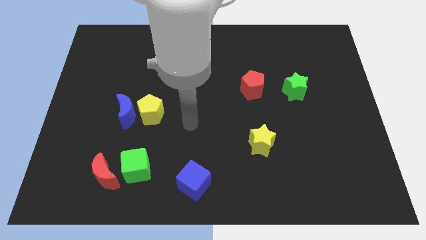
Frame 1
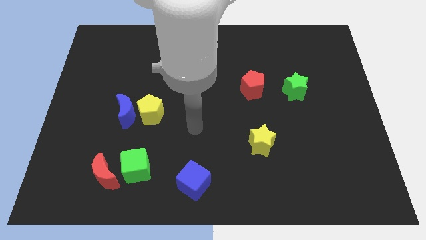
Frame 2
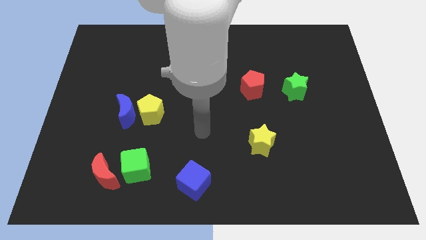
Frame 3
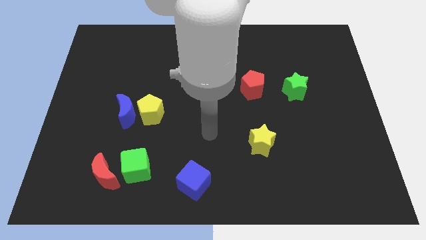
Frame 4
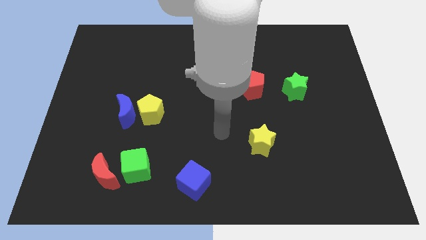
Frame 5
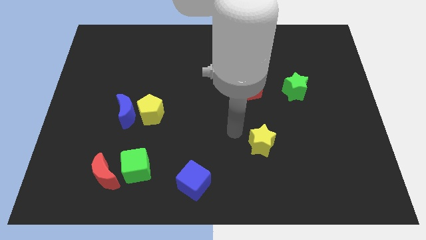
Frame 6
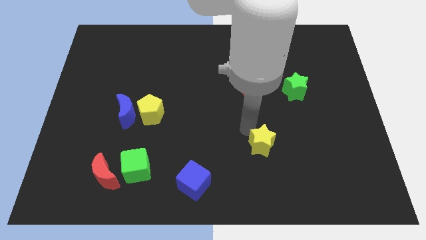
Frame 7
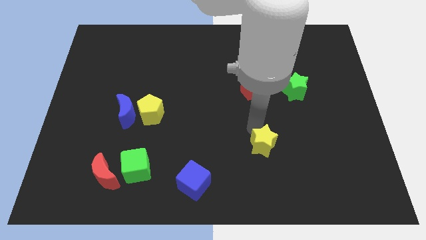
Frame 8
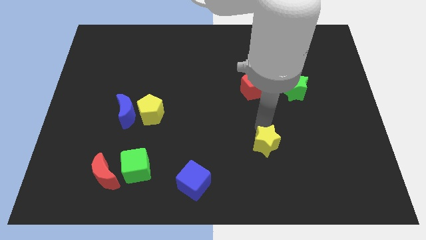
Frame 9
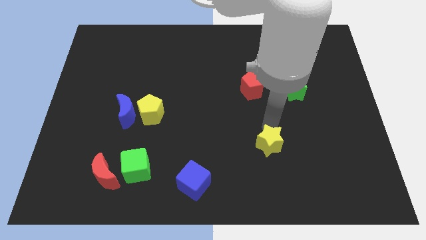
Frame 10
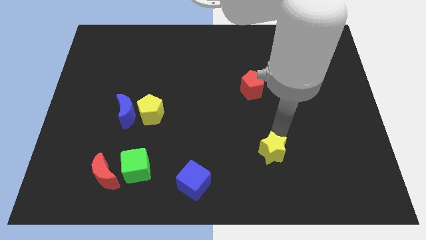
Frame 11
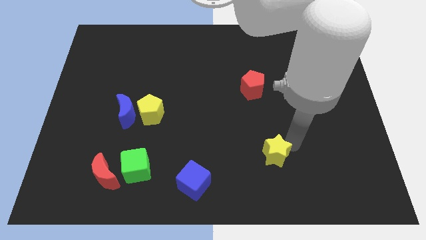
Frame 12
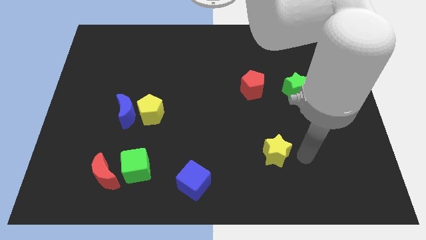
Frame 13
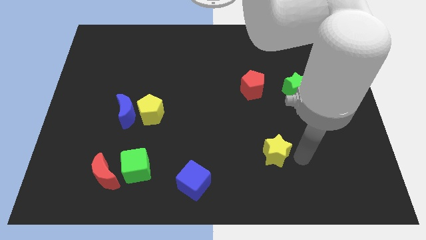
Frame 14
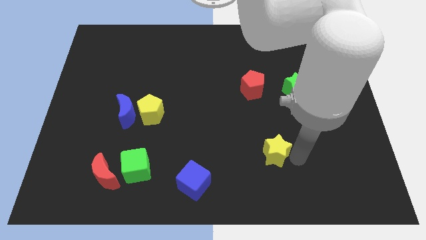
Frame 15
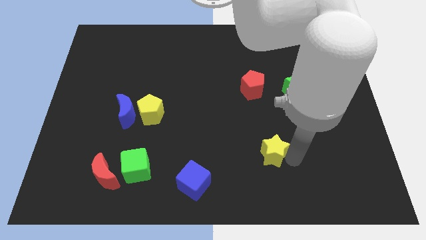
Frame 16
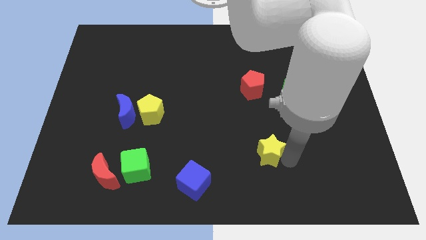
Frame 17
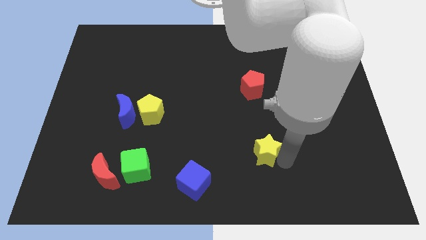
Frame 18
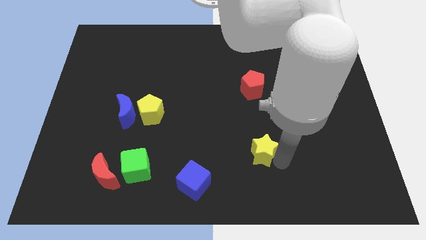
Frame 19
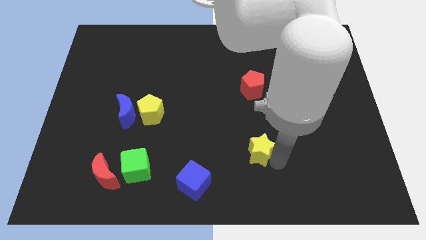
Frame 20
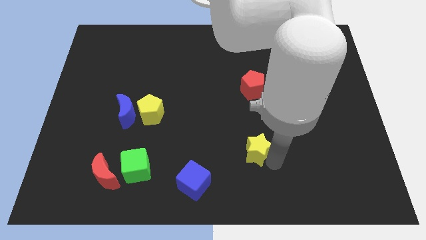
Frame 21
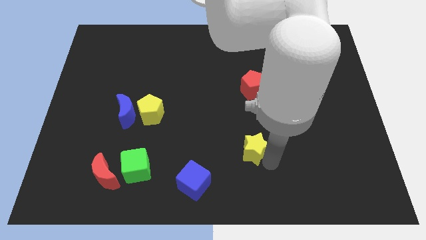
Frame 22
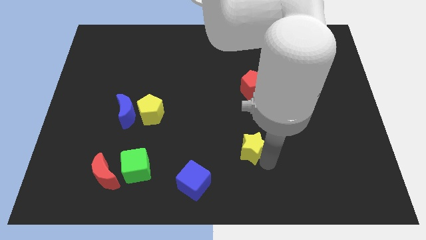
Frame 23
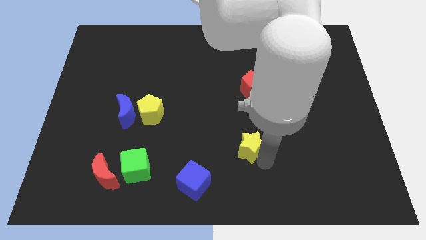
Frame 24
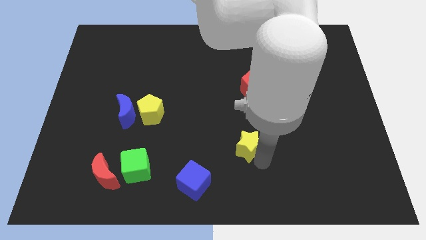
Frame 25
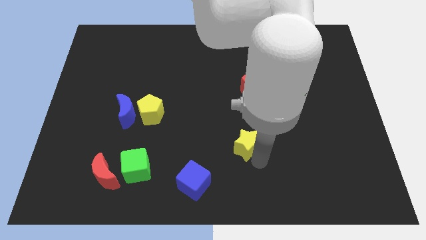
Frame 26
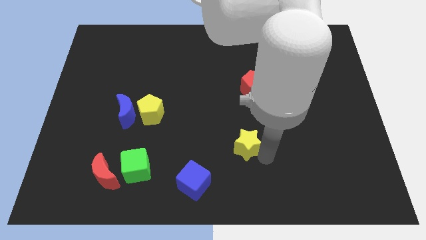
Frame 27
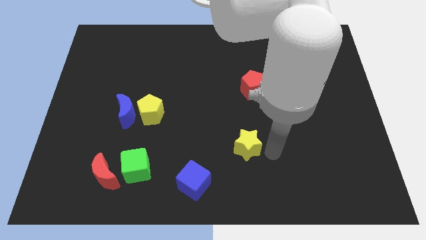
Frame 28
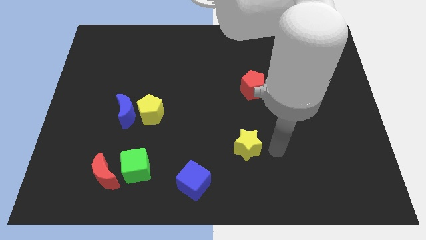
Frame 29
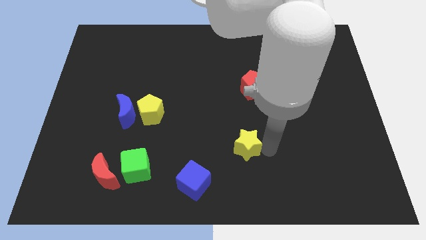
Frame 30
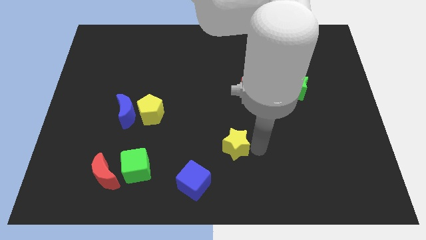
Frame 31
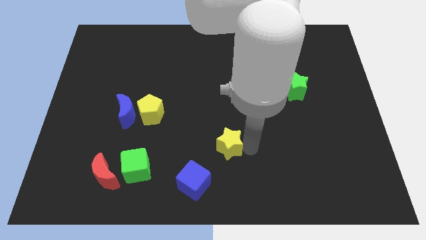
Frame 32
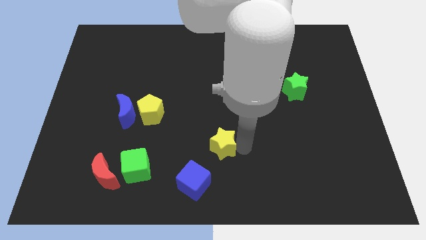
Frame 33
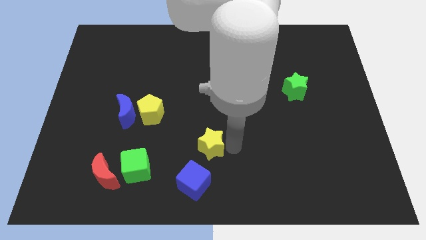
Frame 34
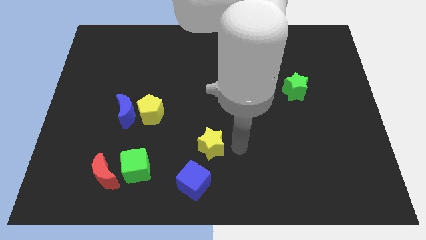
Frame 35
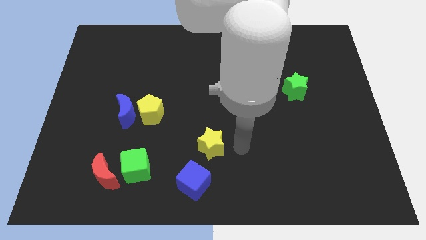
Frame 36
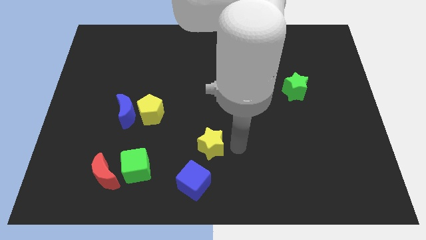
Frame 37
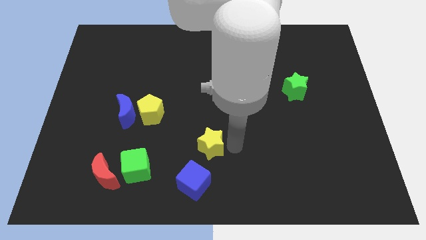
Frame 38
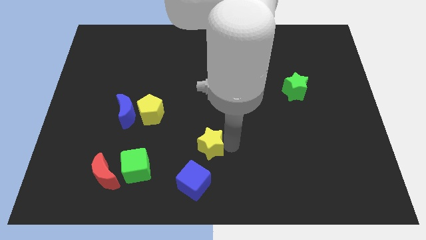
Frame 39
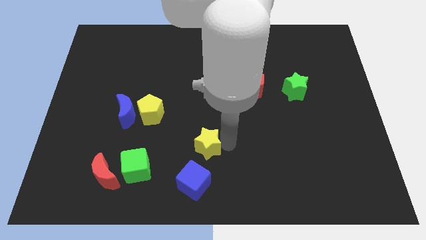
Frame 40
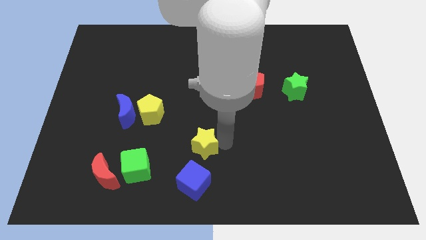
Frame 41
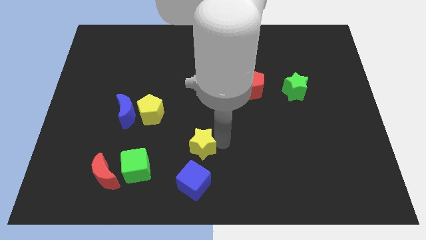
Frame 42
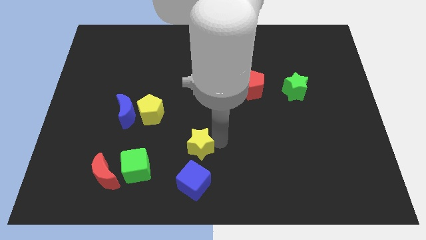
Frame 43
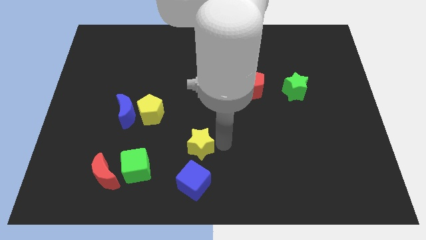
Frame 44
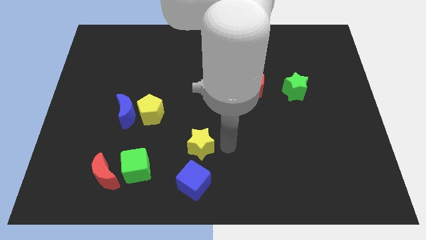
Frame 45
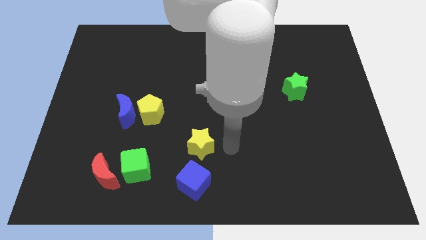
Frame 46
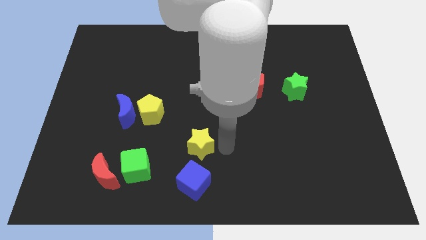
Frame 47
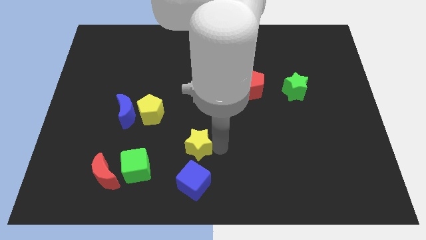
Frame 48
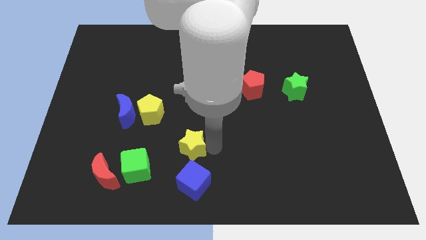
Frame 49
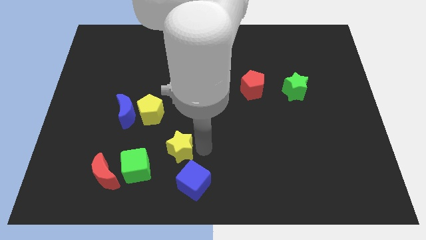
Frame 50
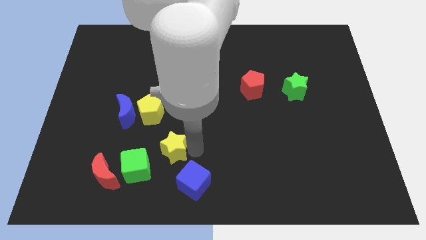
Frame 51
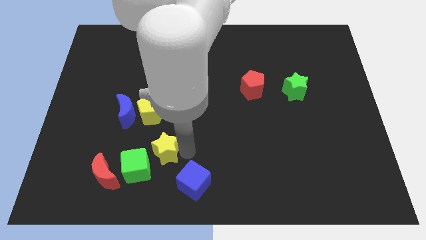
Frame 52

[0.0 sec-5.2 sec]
push the yellow star to the left

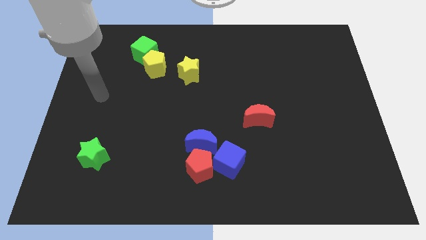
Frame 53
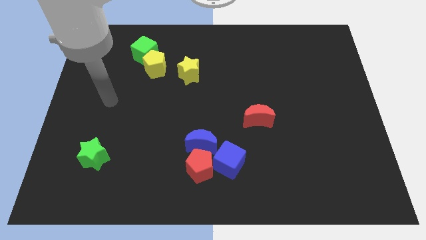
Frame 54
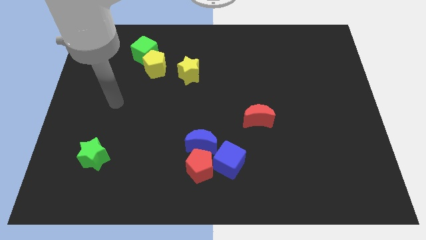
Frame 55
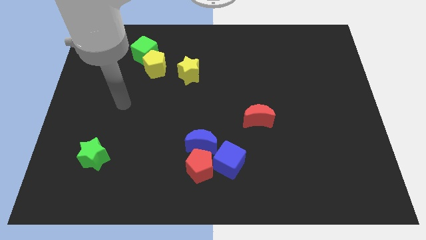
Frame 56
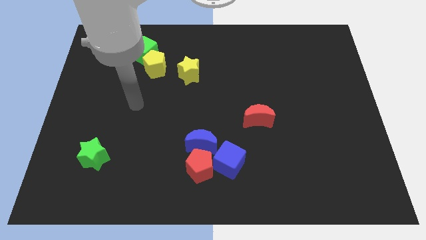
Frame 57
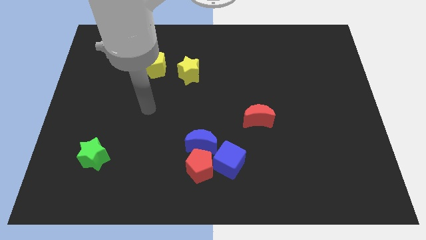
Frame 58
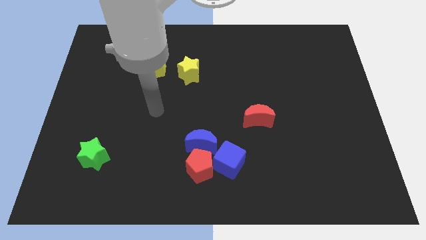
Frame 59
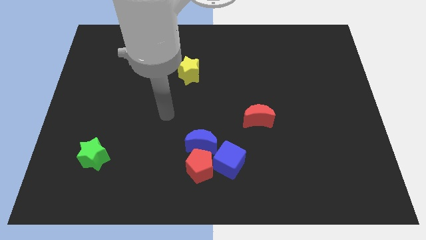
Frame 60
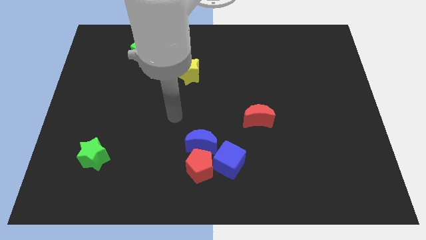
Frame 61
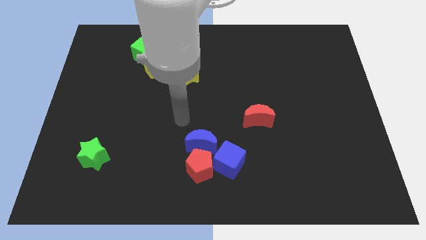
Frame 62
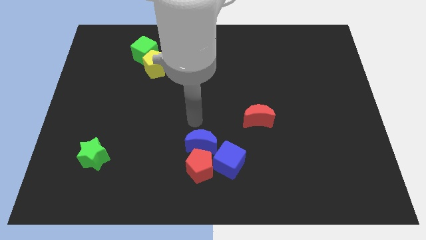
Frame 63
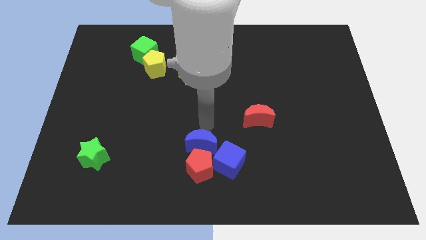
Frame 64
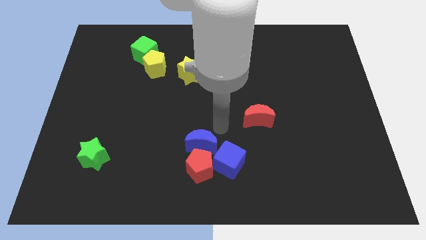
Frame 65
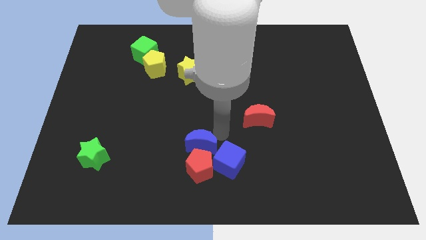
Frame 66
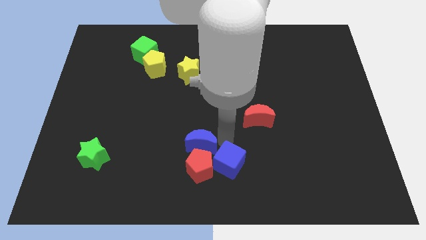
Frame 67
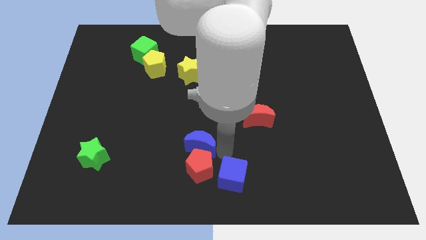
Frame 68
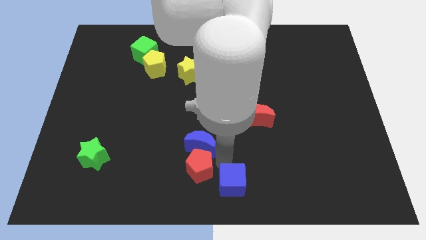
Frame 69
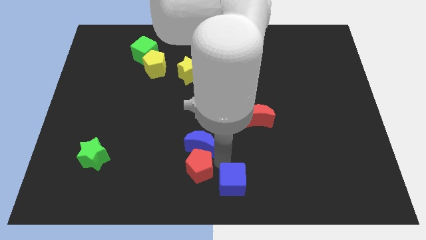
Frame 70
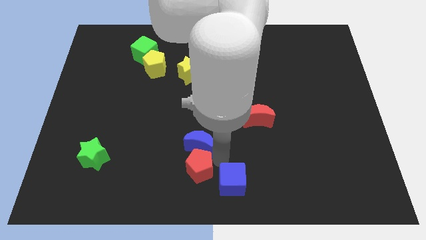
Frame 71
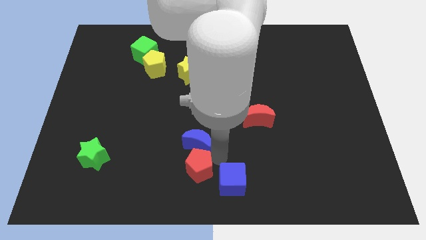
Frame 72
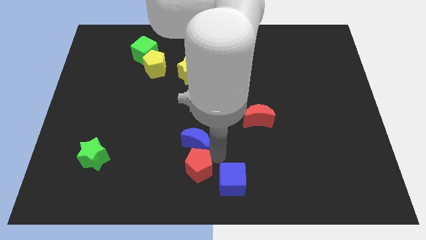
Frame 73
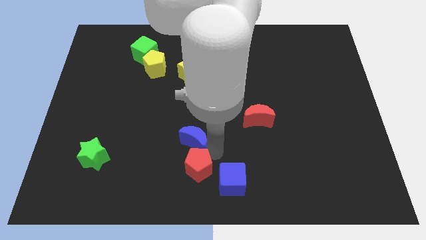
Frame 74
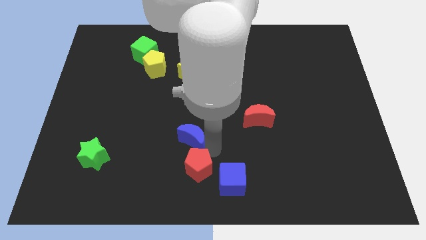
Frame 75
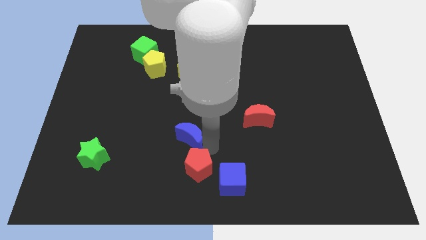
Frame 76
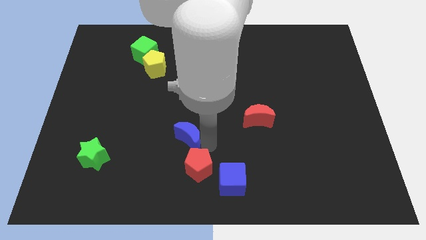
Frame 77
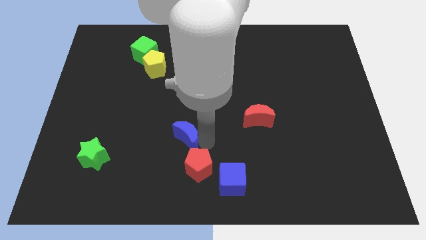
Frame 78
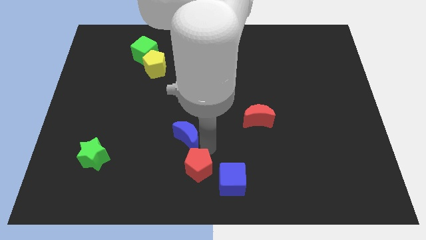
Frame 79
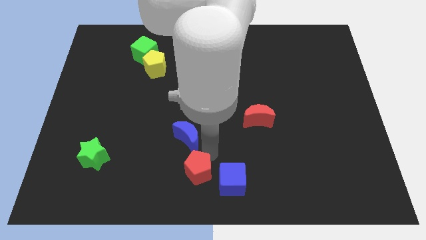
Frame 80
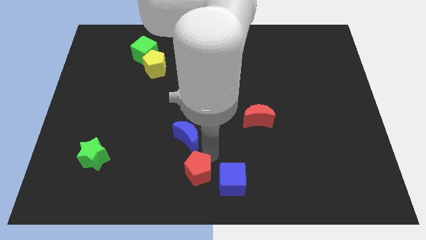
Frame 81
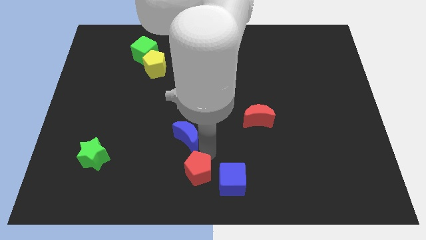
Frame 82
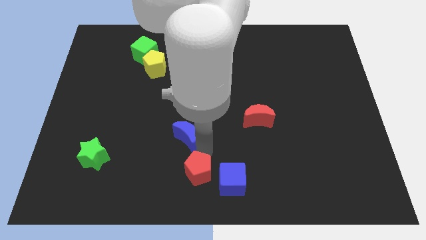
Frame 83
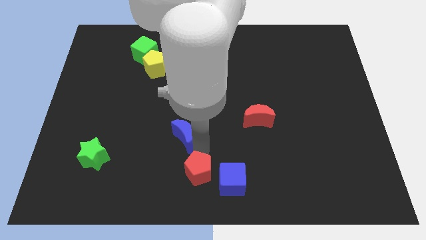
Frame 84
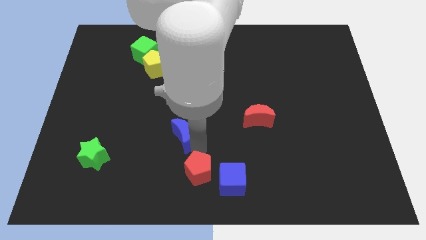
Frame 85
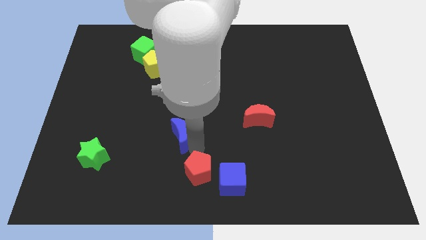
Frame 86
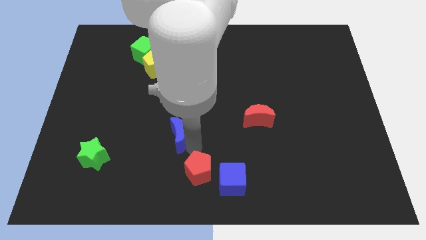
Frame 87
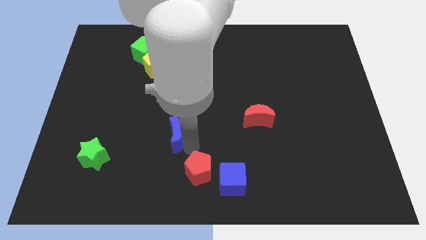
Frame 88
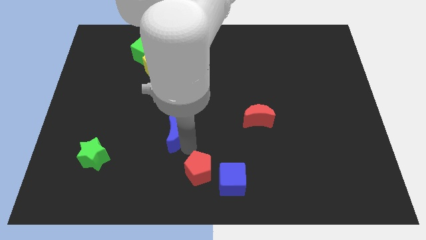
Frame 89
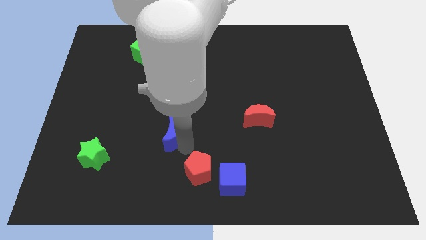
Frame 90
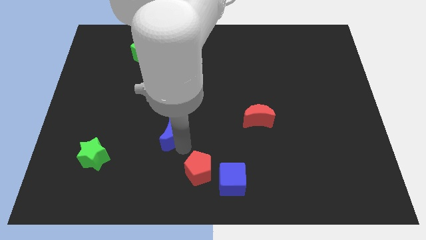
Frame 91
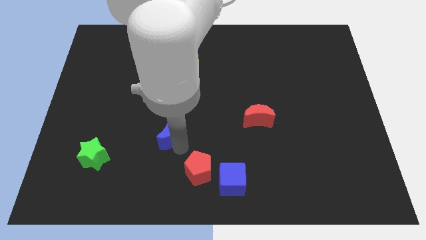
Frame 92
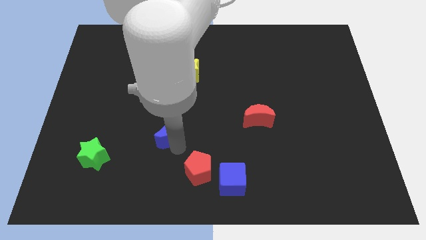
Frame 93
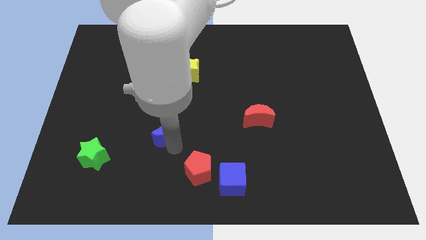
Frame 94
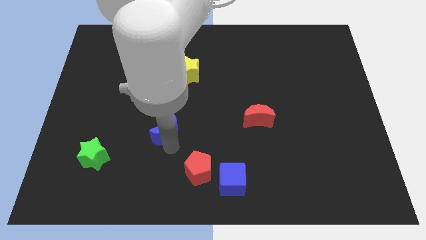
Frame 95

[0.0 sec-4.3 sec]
slide the blue moon a bit up and to the left diagonally
